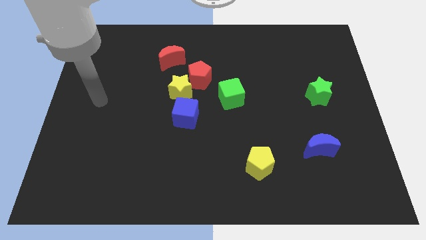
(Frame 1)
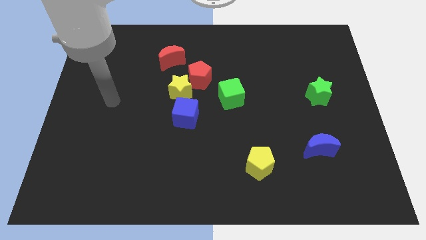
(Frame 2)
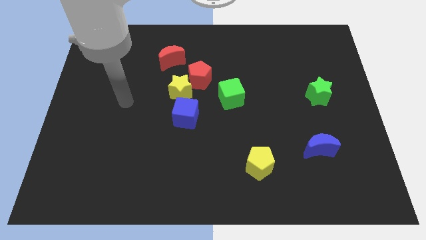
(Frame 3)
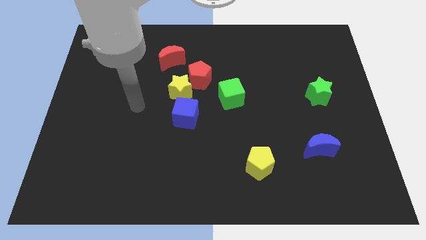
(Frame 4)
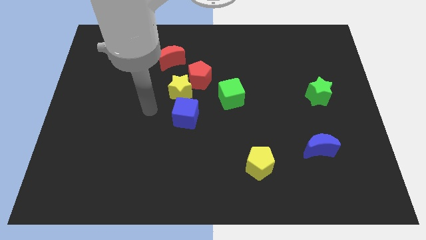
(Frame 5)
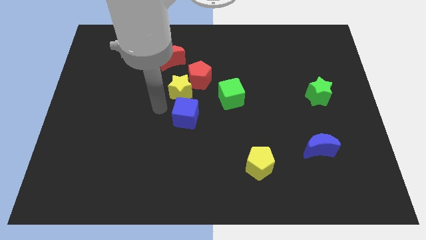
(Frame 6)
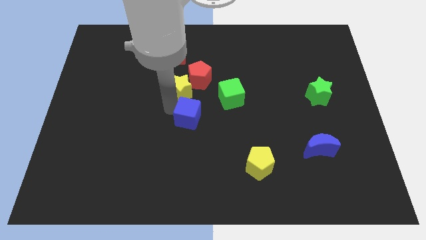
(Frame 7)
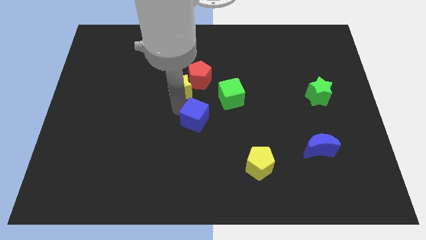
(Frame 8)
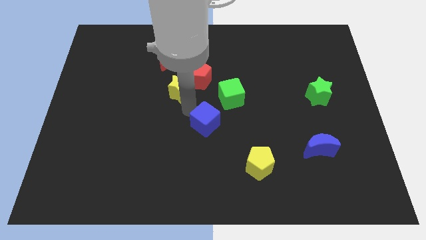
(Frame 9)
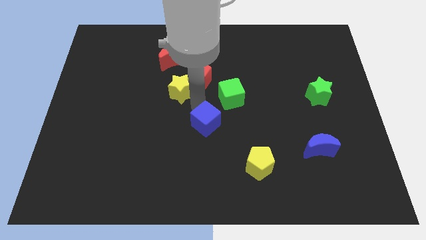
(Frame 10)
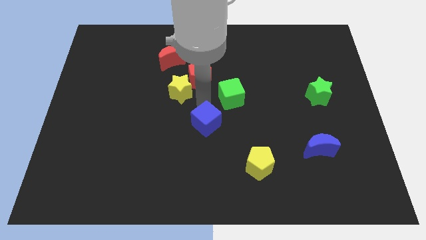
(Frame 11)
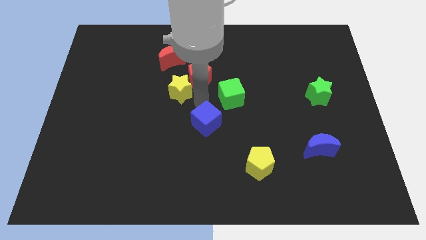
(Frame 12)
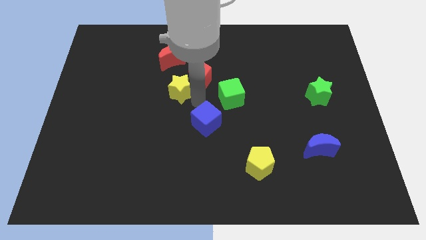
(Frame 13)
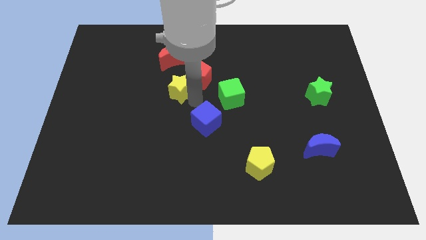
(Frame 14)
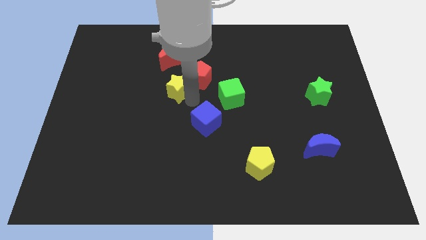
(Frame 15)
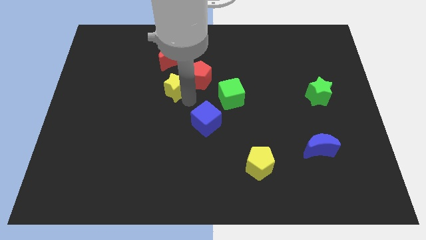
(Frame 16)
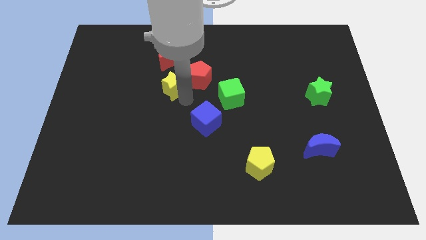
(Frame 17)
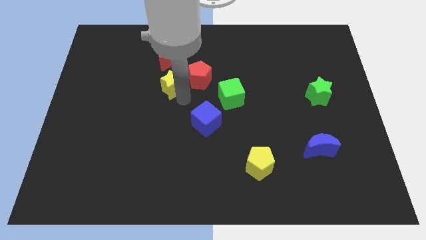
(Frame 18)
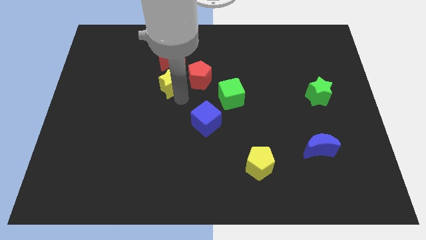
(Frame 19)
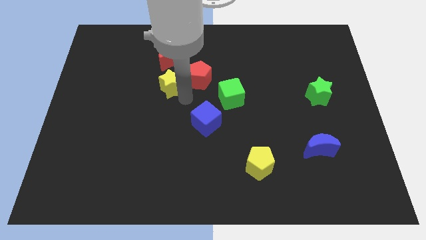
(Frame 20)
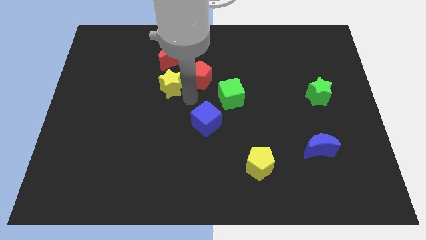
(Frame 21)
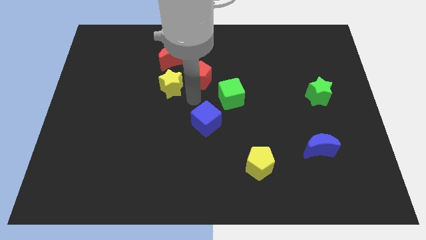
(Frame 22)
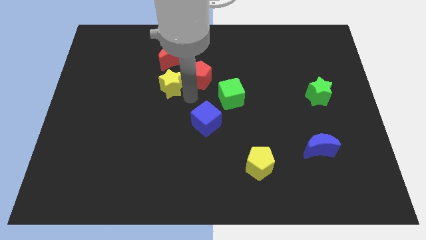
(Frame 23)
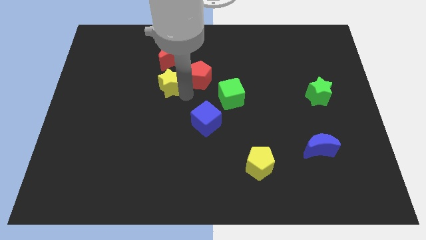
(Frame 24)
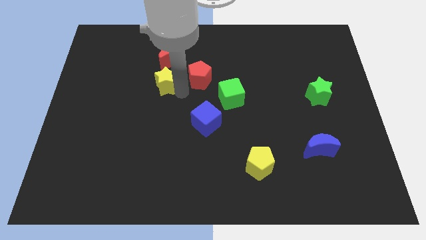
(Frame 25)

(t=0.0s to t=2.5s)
move the yellow star away from the red pentagon and blue cube

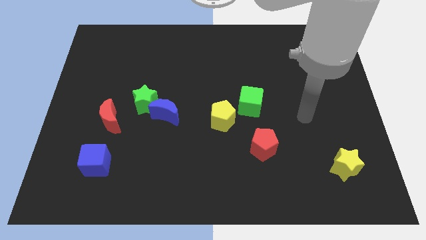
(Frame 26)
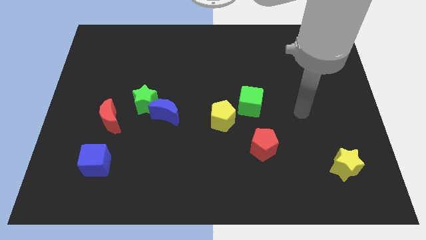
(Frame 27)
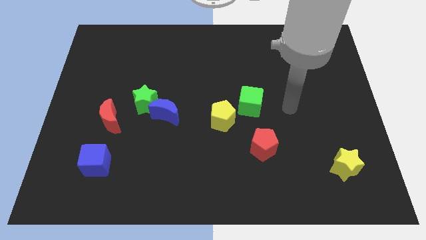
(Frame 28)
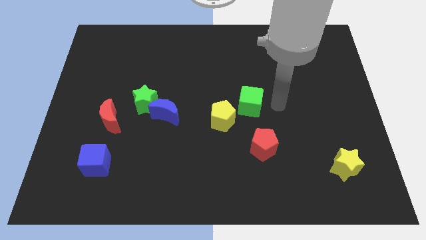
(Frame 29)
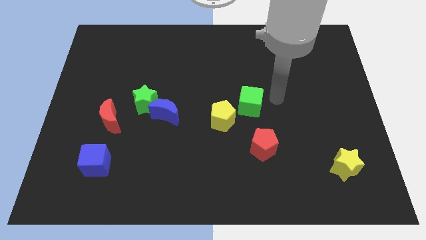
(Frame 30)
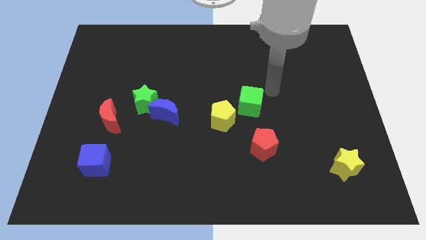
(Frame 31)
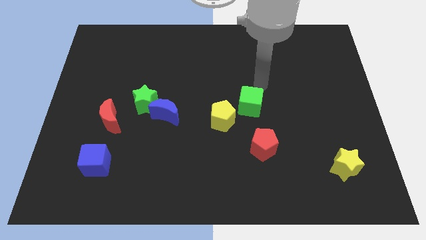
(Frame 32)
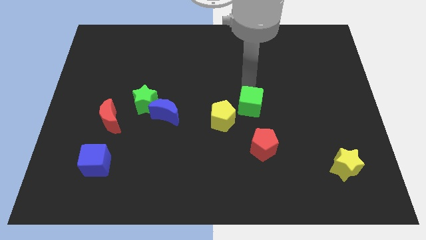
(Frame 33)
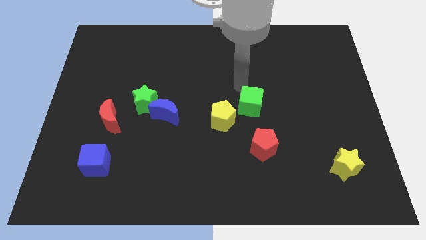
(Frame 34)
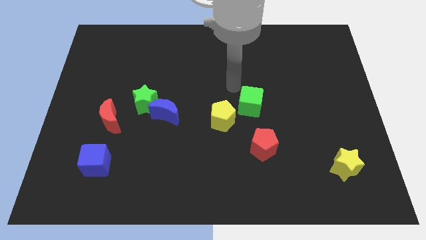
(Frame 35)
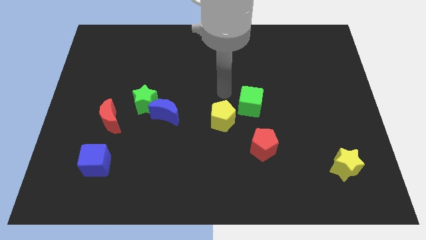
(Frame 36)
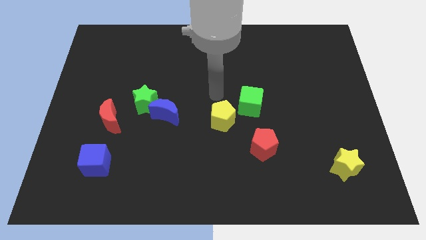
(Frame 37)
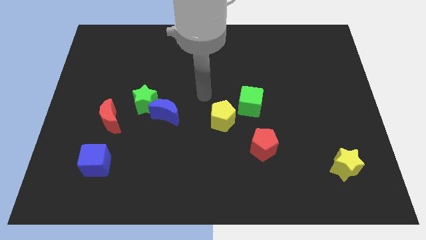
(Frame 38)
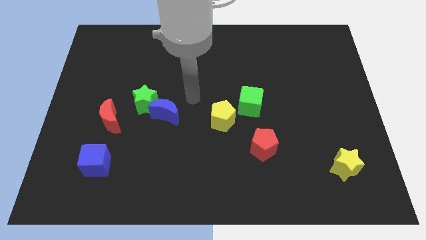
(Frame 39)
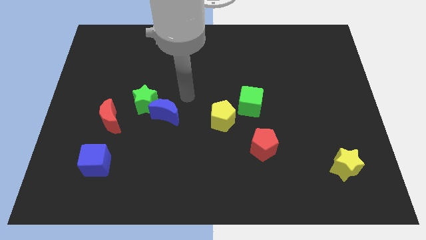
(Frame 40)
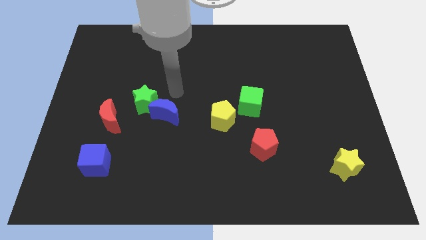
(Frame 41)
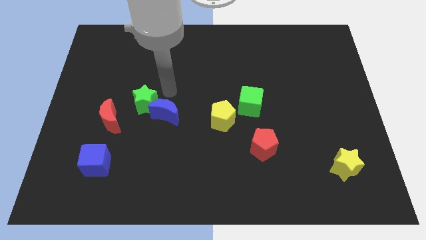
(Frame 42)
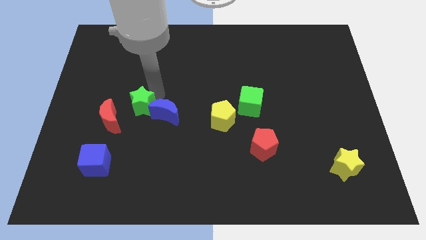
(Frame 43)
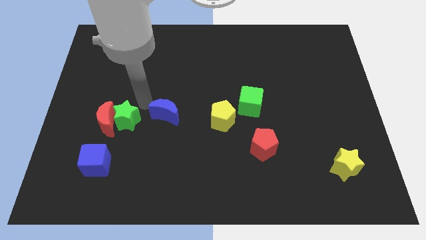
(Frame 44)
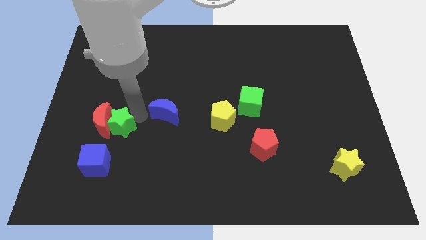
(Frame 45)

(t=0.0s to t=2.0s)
pull the blue moon apart from the green star

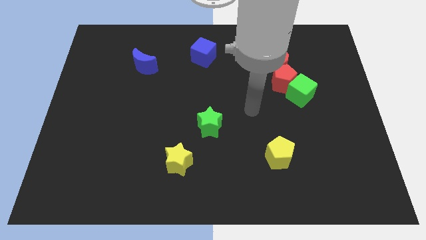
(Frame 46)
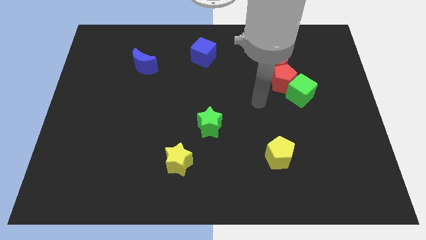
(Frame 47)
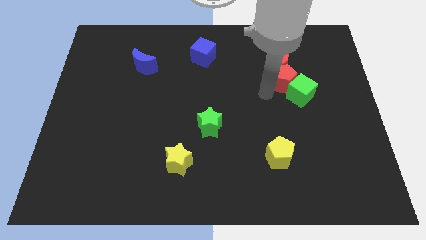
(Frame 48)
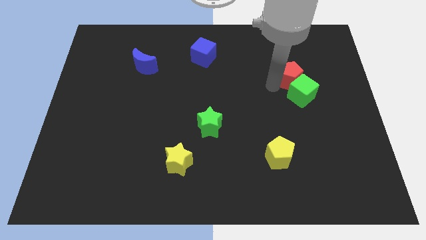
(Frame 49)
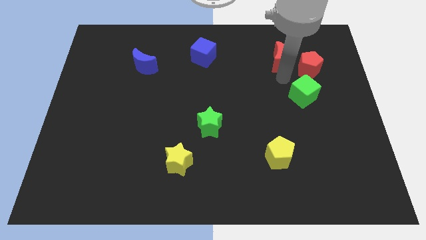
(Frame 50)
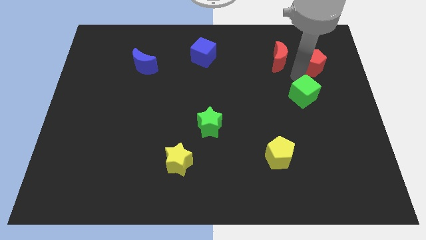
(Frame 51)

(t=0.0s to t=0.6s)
move the green cube away from the red pentagon

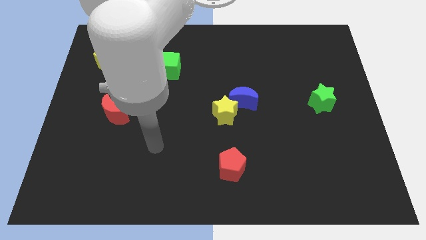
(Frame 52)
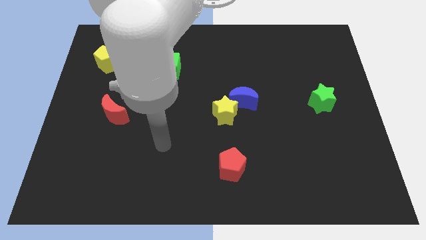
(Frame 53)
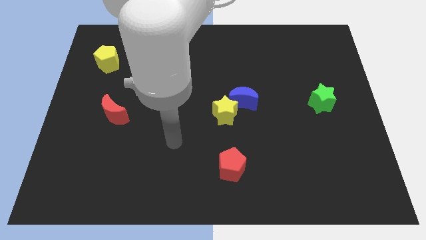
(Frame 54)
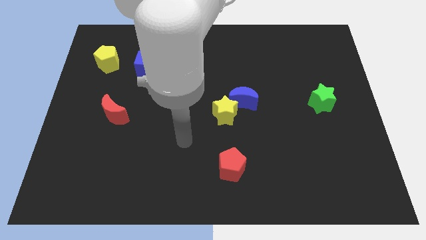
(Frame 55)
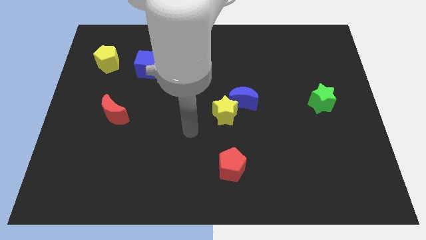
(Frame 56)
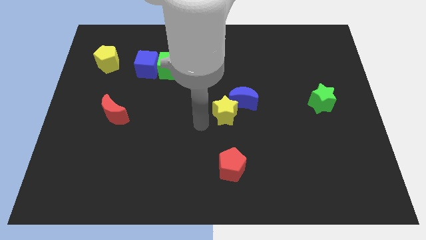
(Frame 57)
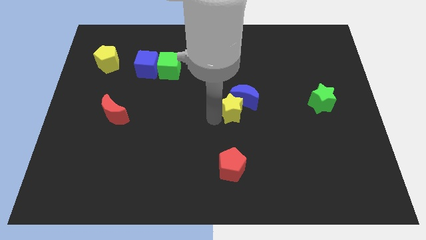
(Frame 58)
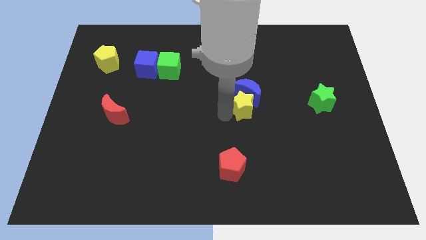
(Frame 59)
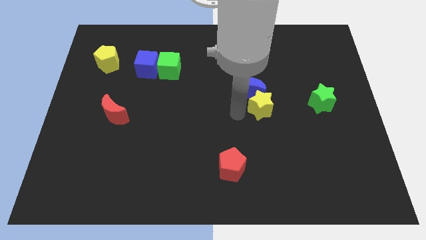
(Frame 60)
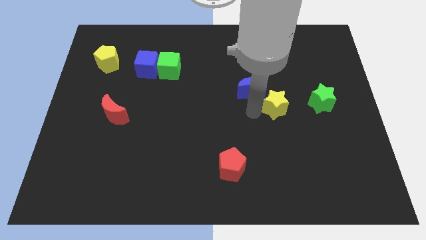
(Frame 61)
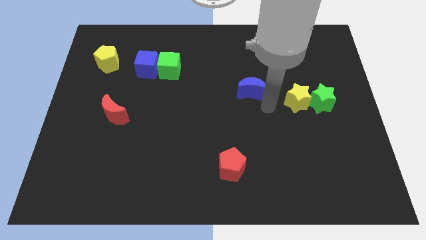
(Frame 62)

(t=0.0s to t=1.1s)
pull the blue moon apart from the yellow star

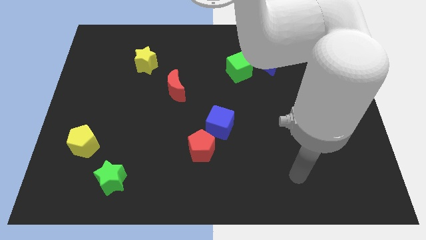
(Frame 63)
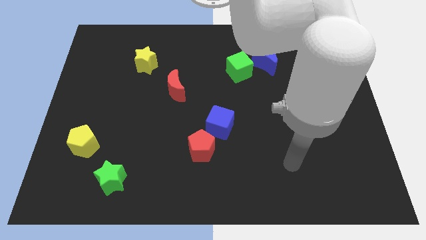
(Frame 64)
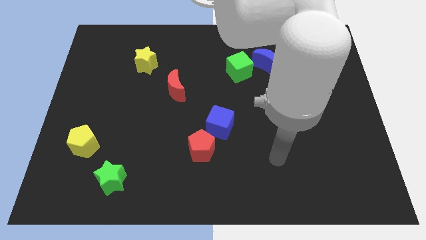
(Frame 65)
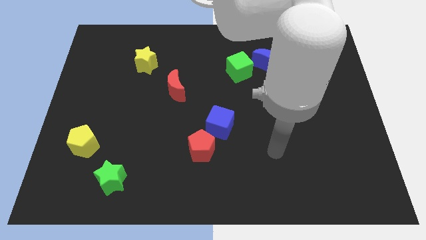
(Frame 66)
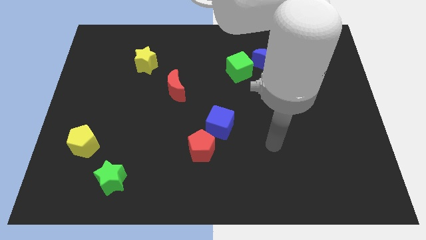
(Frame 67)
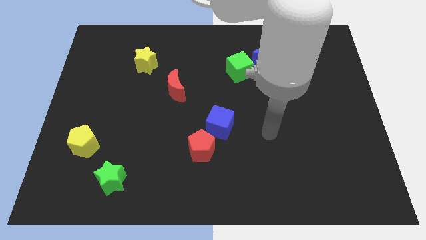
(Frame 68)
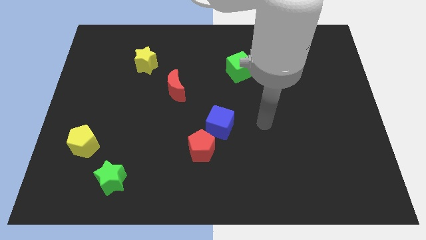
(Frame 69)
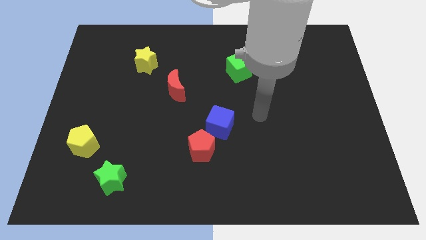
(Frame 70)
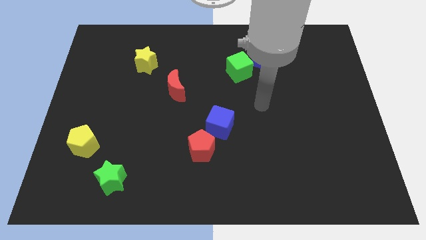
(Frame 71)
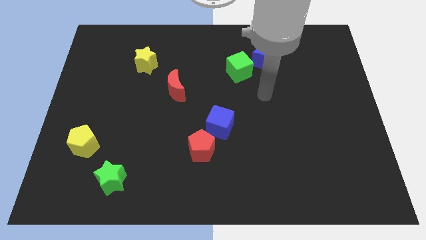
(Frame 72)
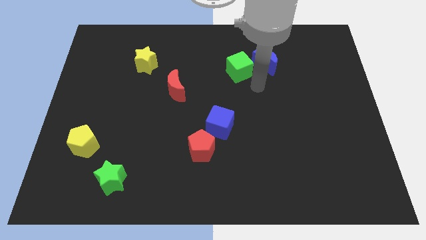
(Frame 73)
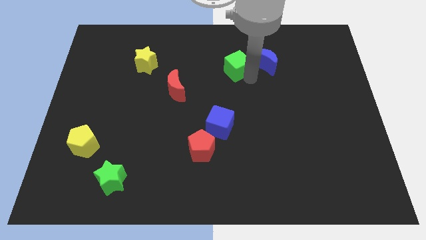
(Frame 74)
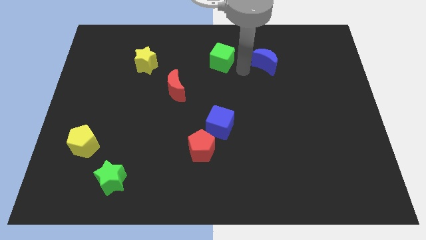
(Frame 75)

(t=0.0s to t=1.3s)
separate the blue moon from the green cube

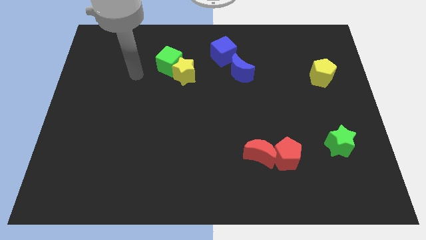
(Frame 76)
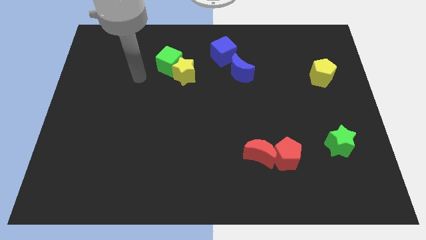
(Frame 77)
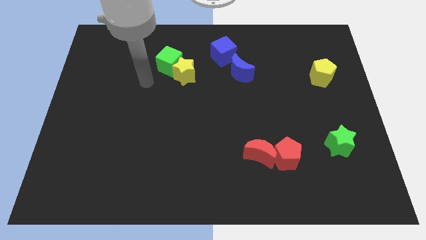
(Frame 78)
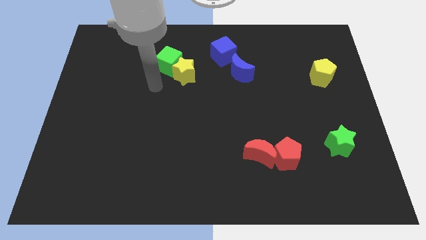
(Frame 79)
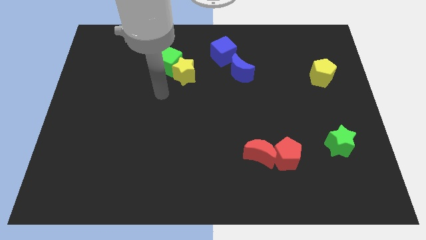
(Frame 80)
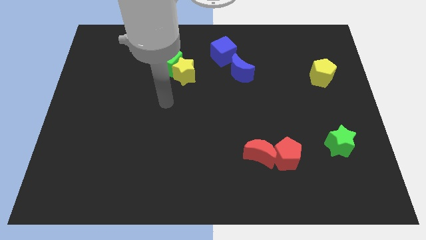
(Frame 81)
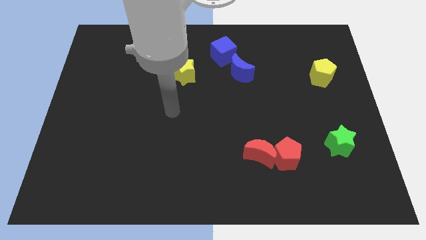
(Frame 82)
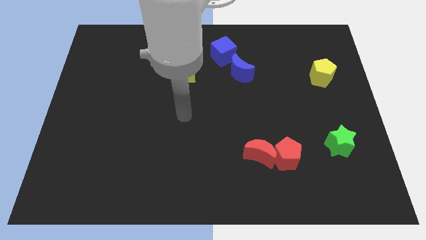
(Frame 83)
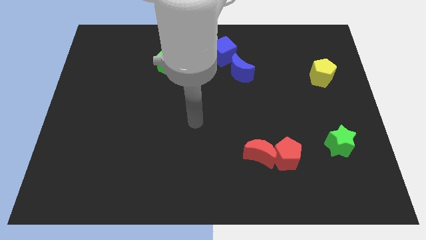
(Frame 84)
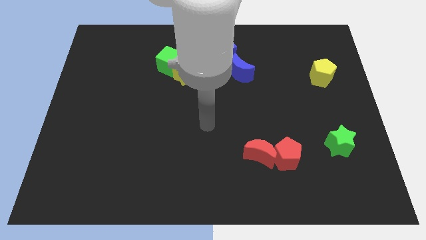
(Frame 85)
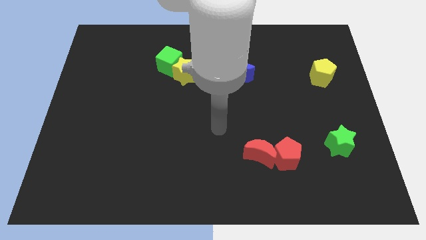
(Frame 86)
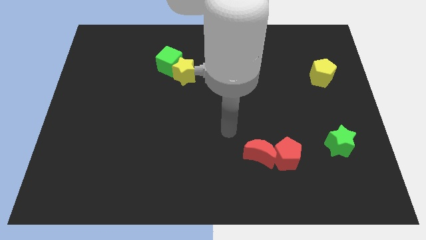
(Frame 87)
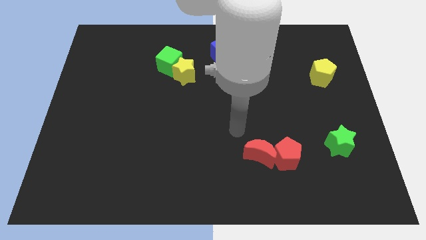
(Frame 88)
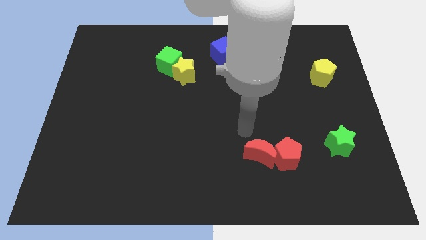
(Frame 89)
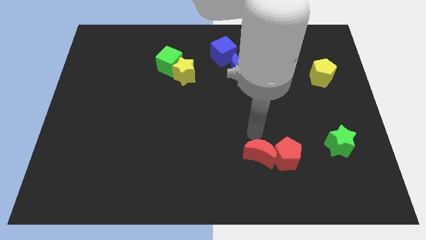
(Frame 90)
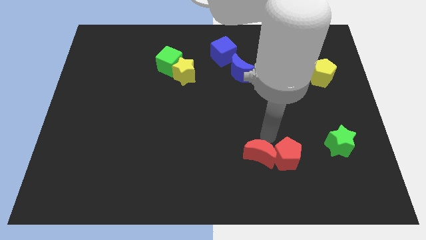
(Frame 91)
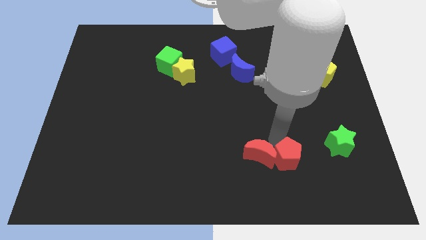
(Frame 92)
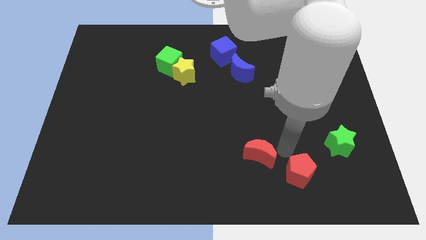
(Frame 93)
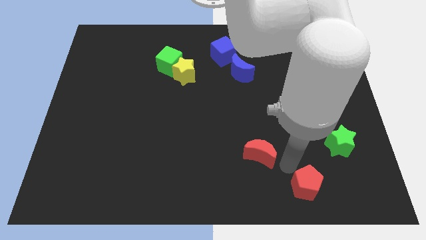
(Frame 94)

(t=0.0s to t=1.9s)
move the red moon away from the red pentagon
